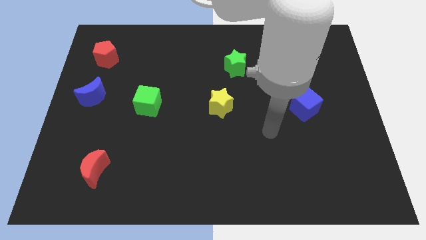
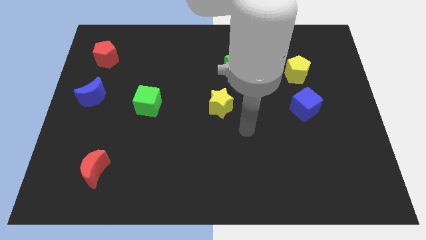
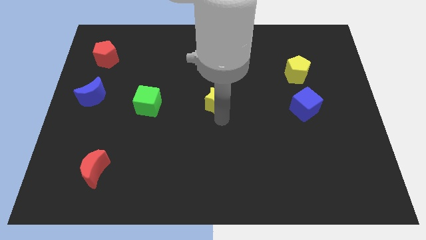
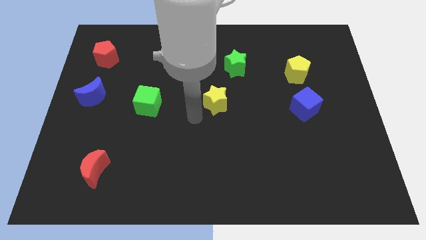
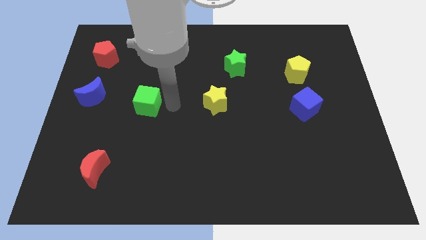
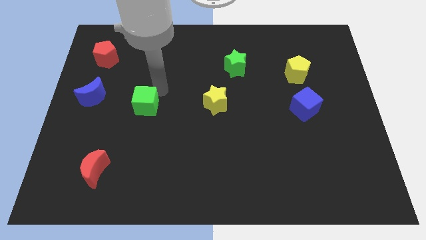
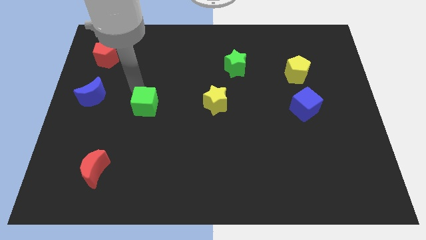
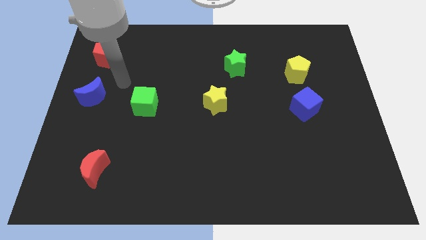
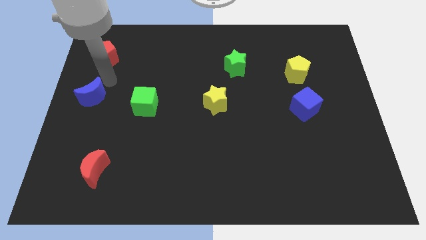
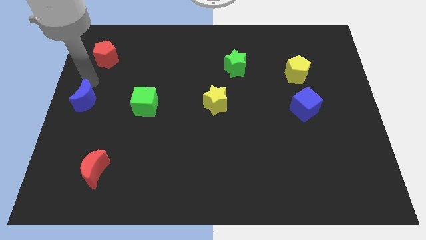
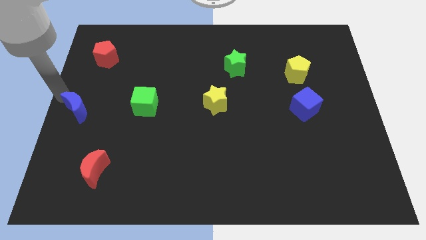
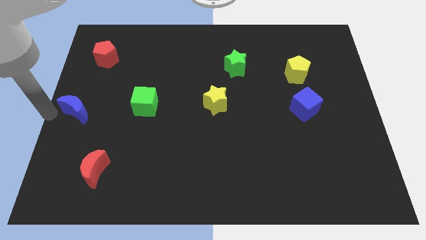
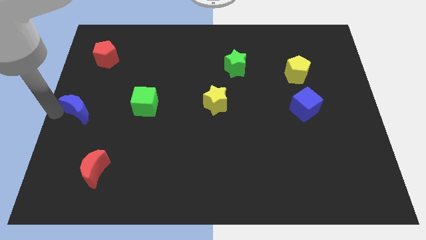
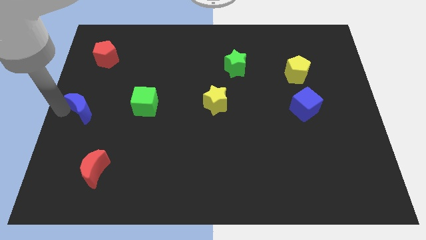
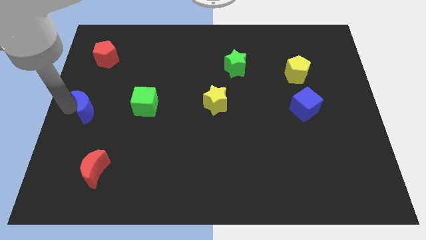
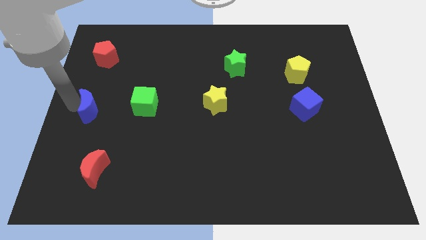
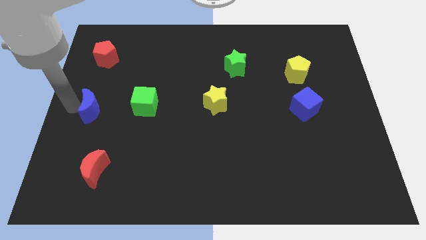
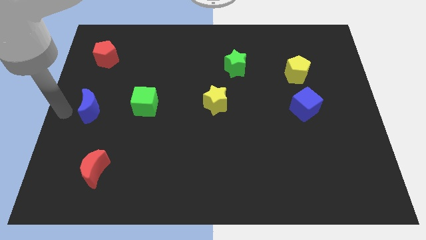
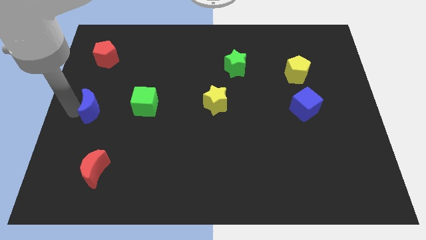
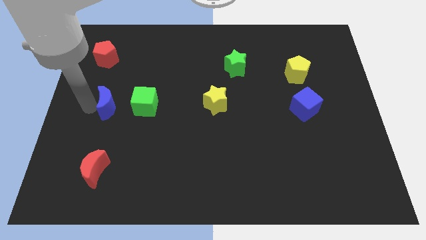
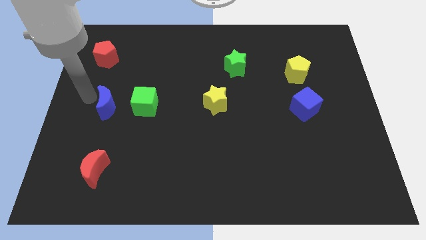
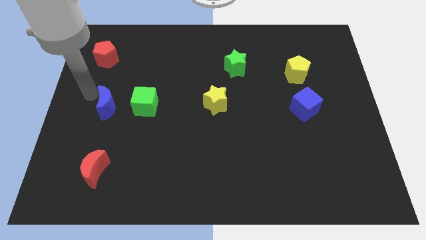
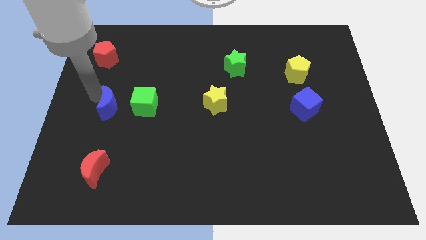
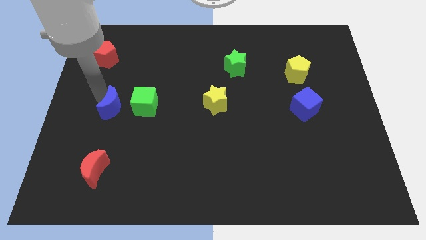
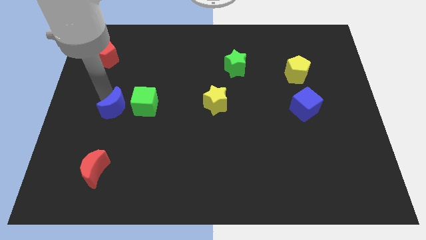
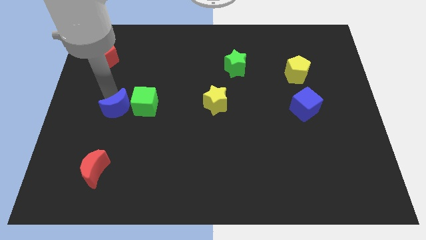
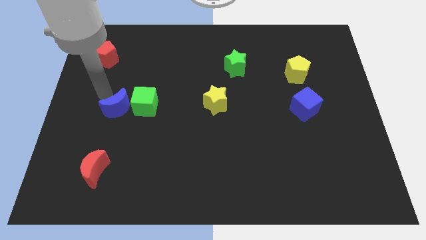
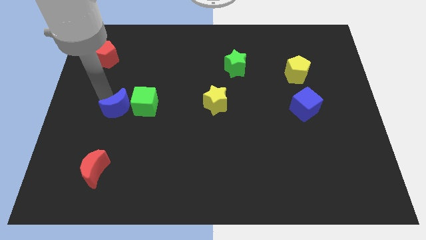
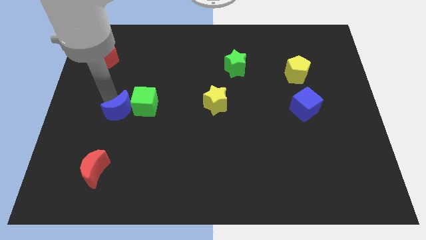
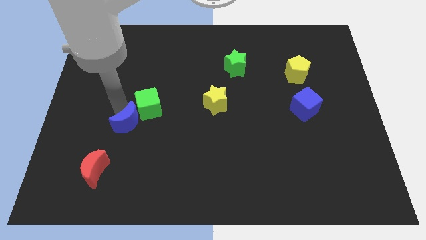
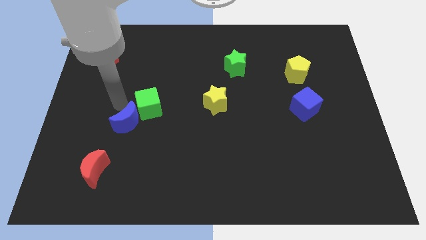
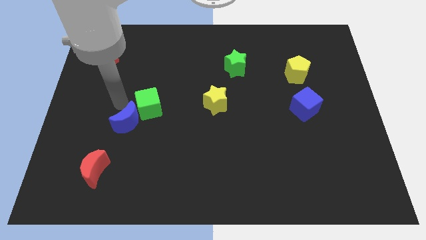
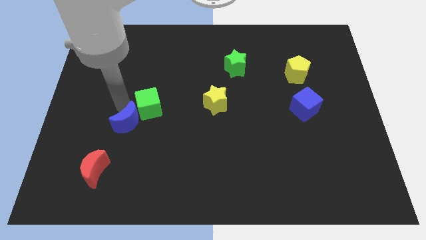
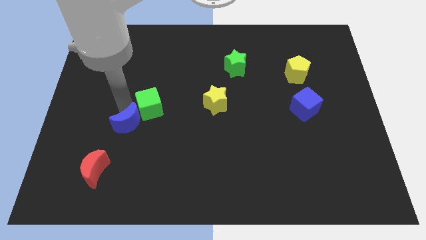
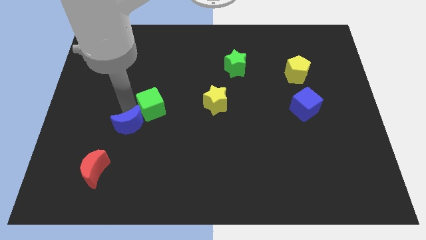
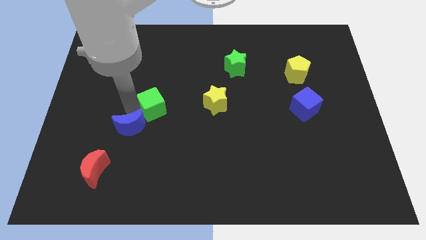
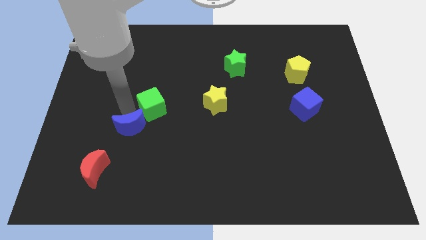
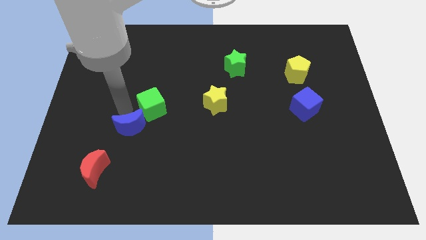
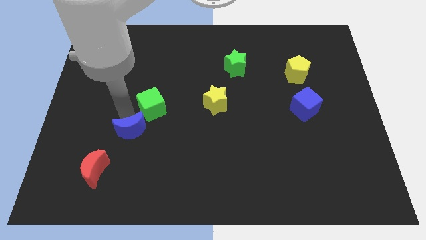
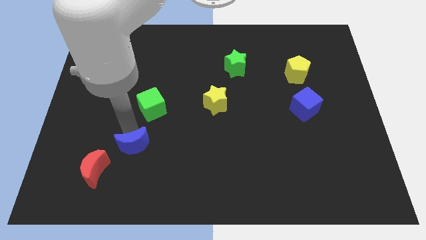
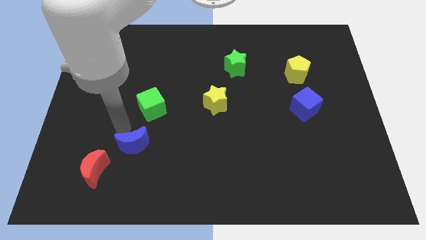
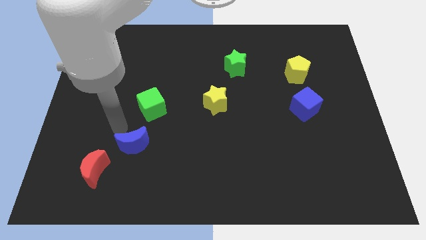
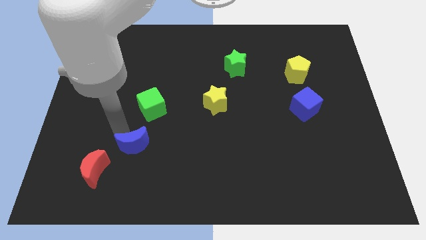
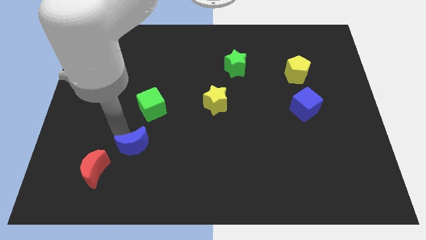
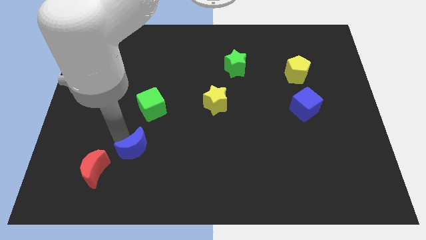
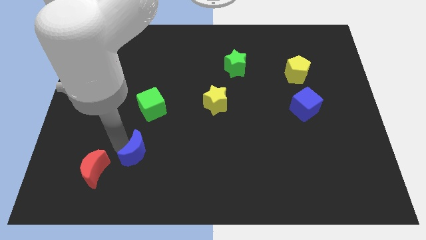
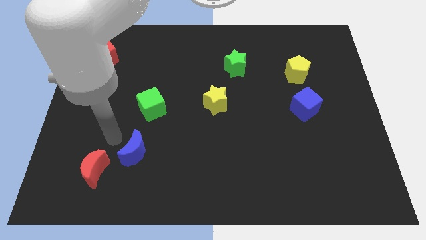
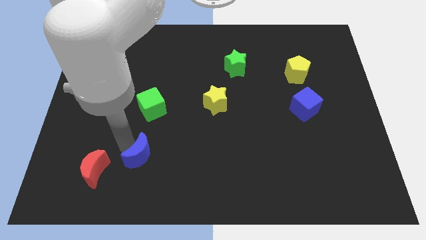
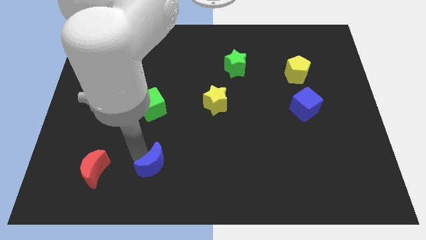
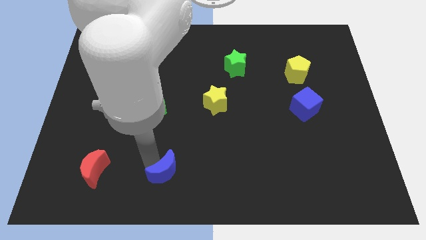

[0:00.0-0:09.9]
slide the blue moon to the bottom

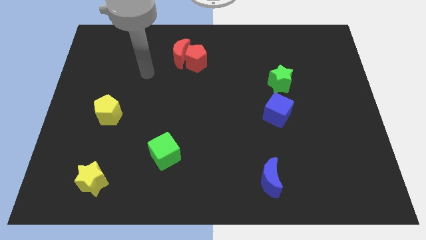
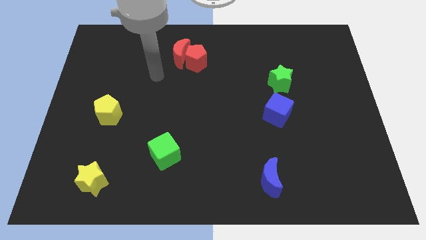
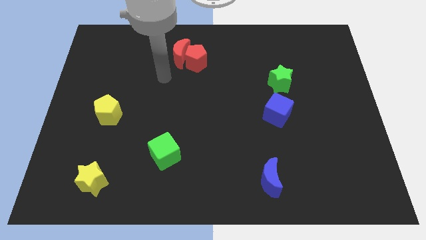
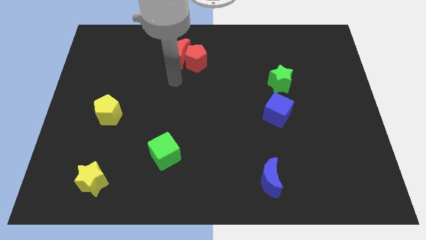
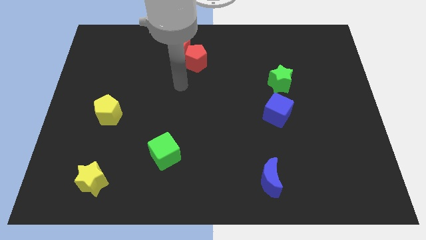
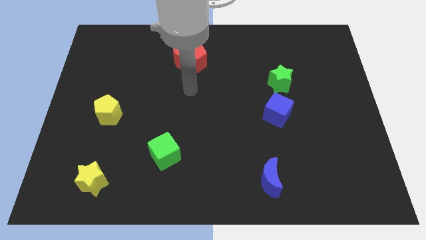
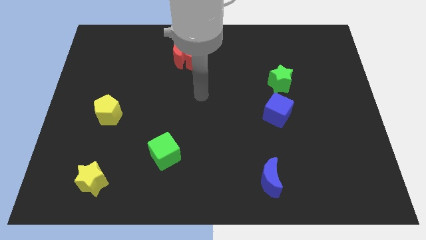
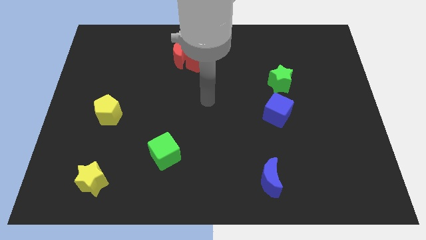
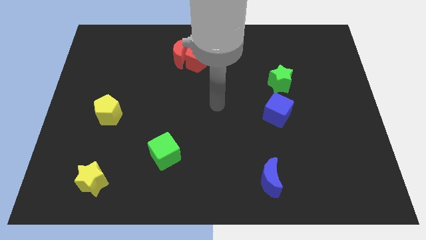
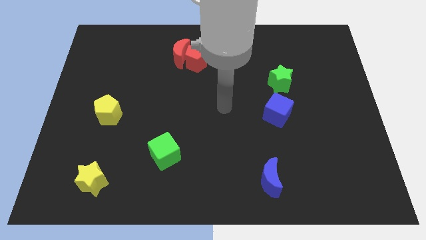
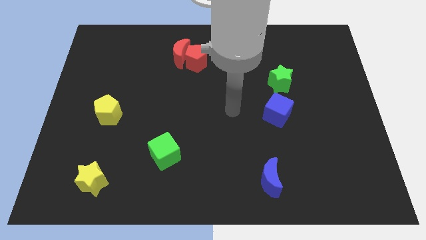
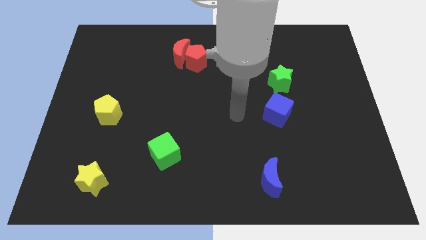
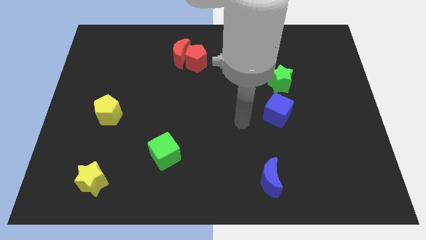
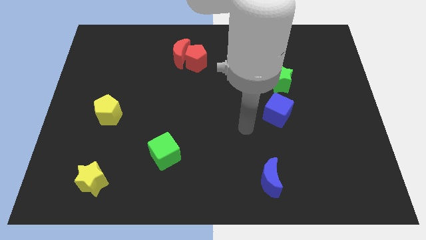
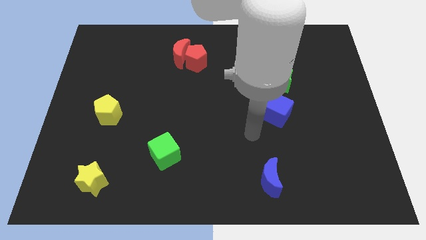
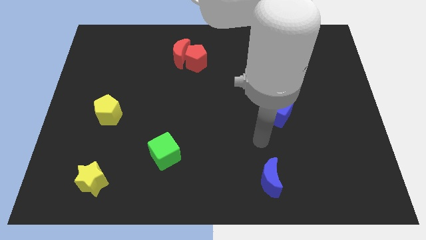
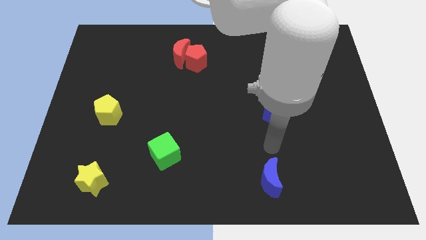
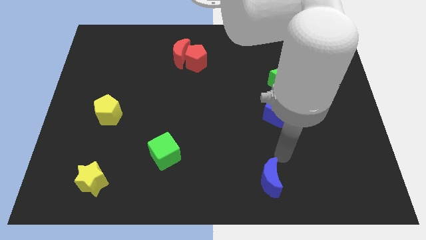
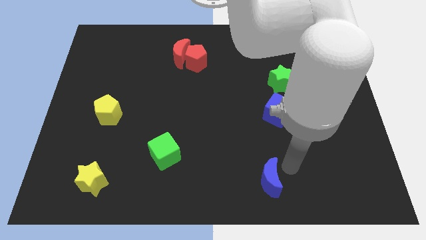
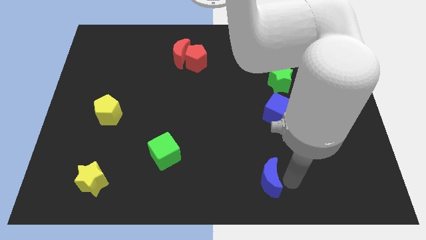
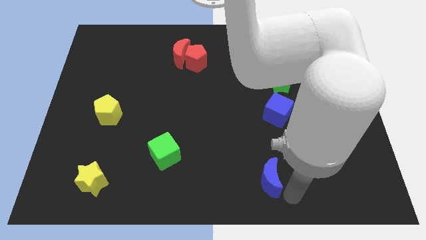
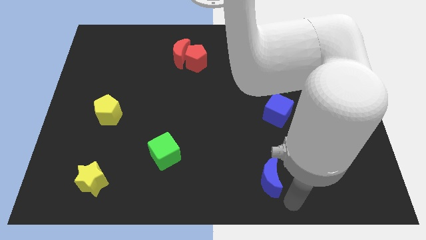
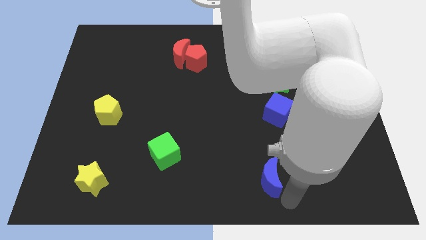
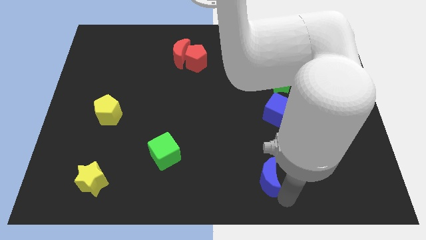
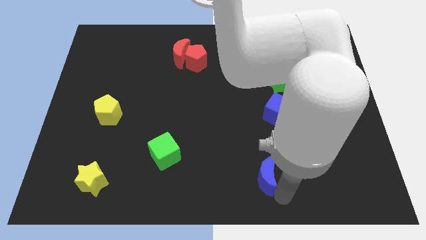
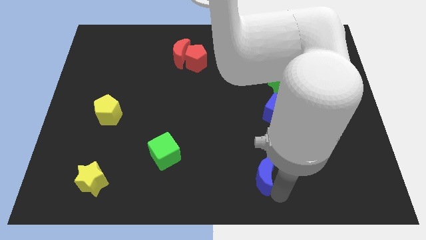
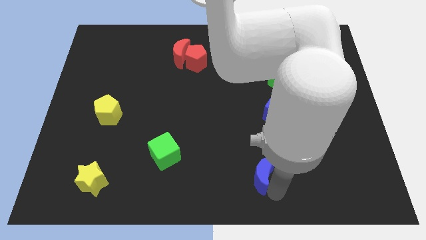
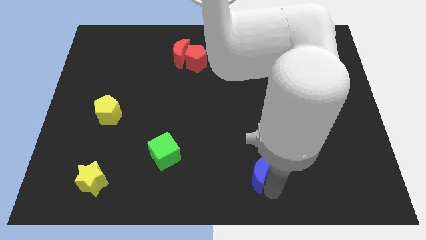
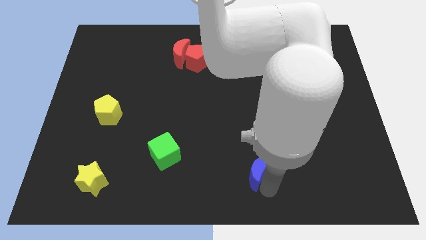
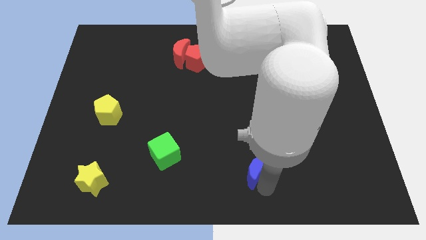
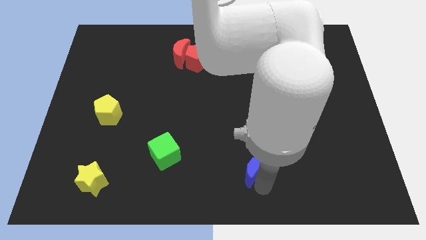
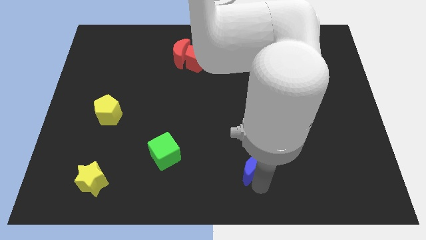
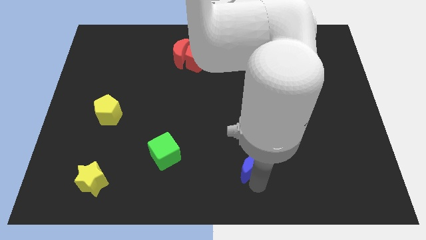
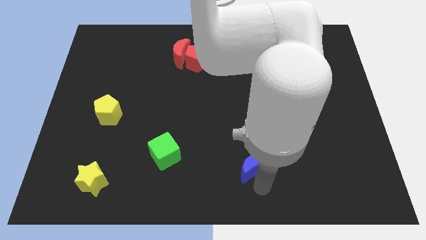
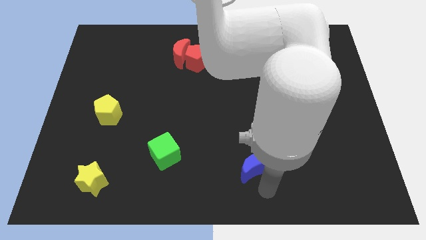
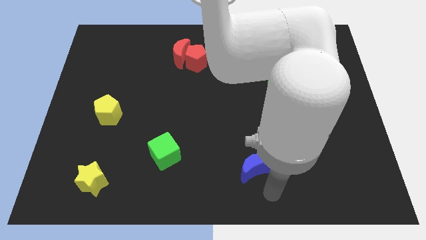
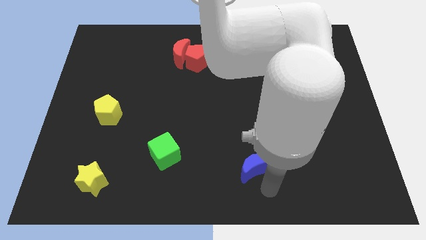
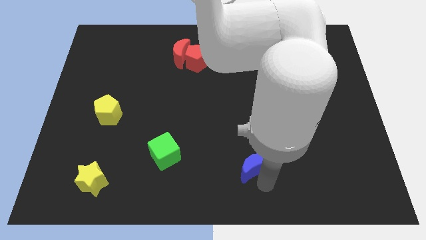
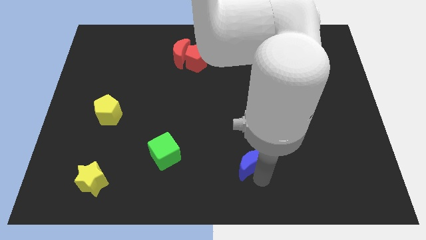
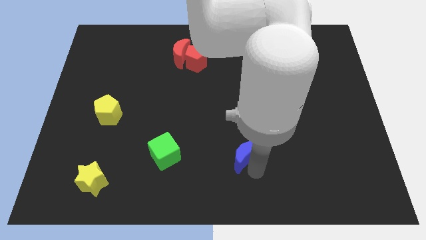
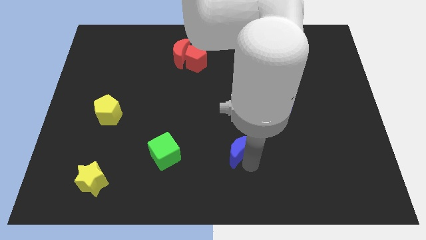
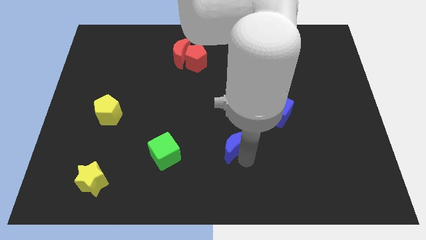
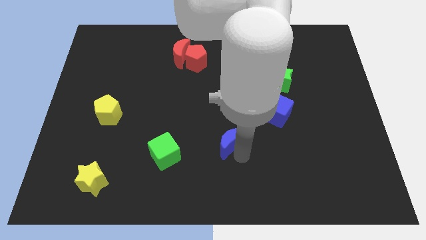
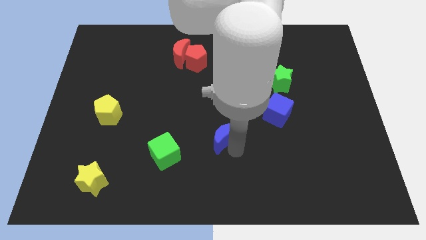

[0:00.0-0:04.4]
put the blue moon to the middle of the board
